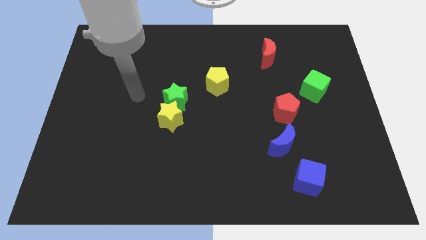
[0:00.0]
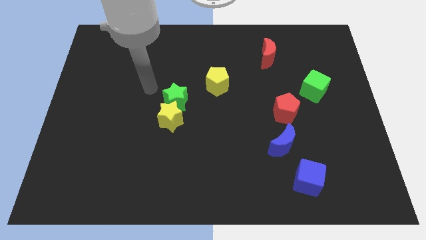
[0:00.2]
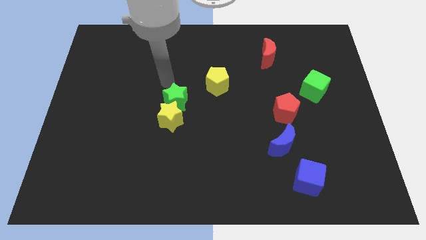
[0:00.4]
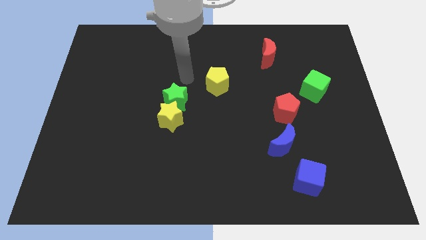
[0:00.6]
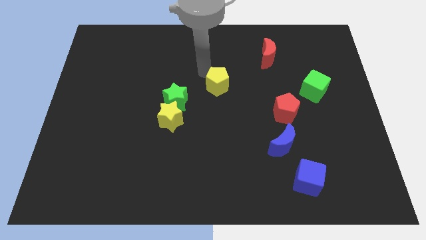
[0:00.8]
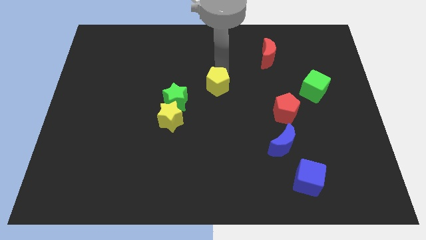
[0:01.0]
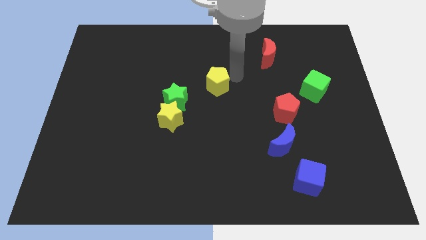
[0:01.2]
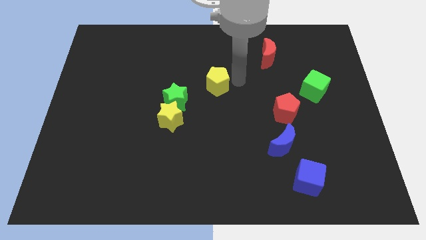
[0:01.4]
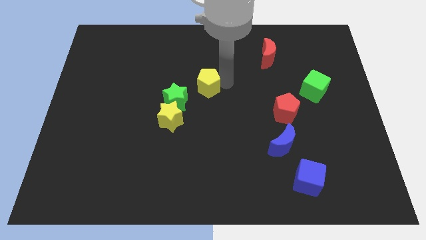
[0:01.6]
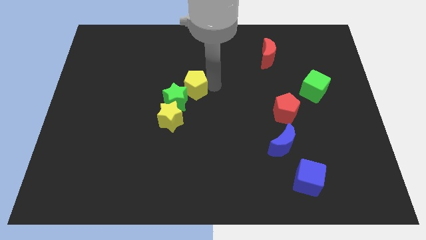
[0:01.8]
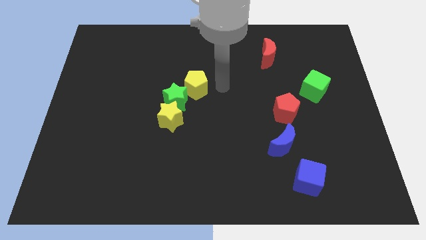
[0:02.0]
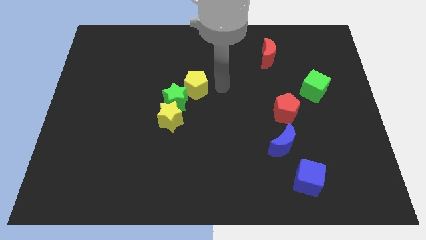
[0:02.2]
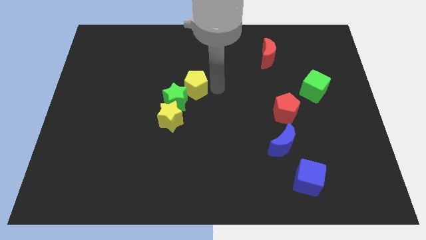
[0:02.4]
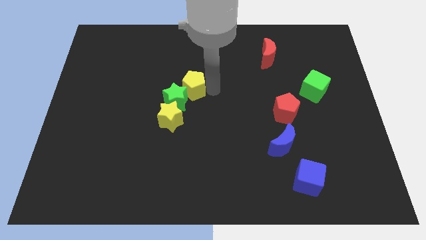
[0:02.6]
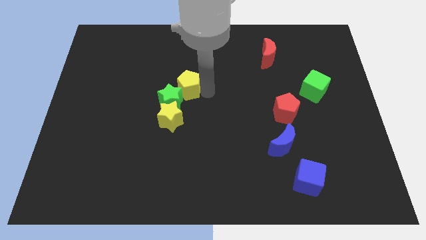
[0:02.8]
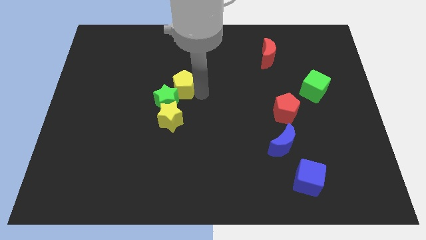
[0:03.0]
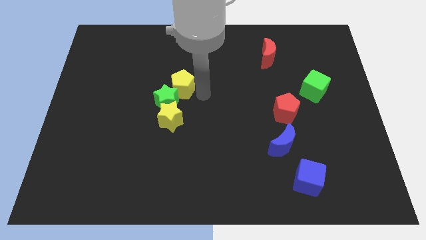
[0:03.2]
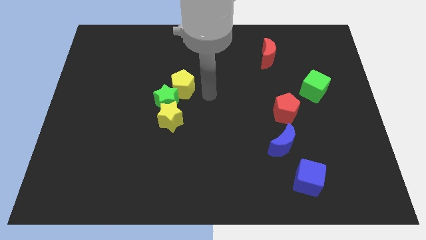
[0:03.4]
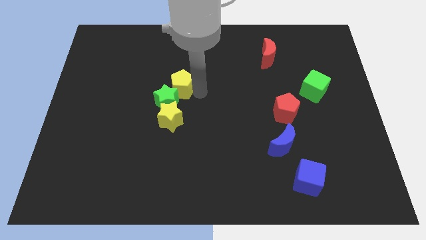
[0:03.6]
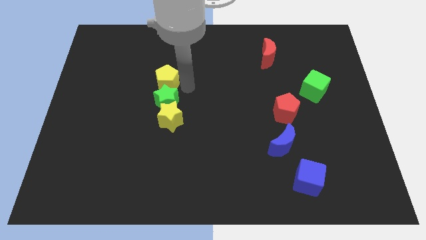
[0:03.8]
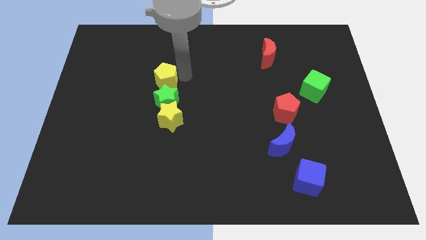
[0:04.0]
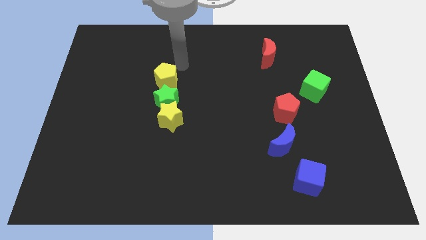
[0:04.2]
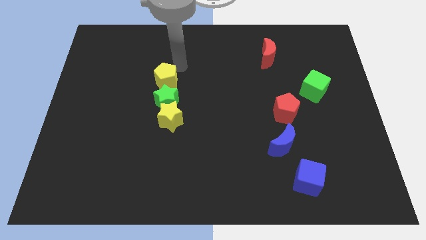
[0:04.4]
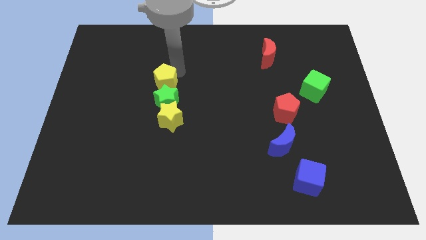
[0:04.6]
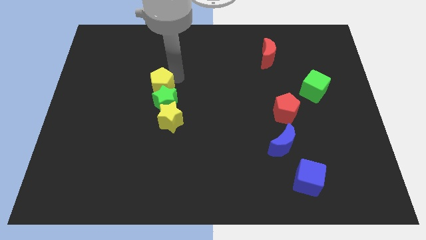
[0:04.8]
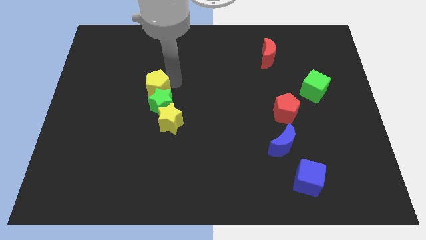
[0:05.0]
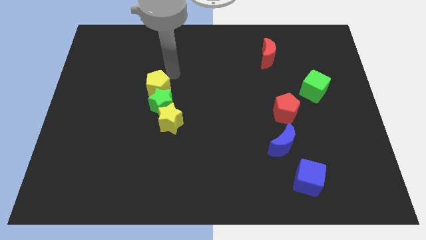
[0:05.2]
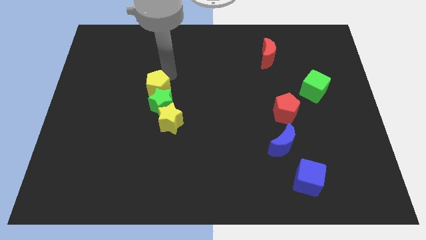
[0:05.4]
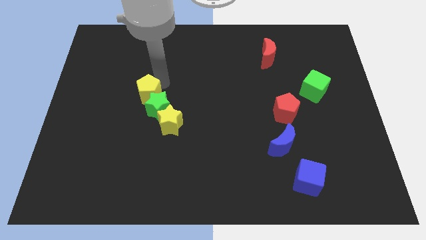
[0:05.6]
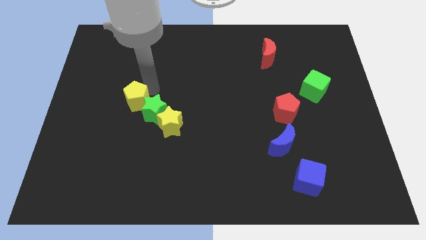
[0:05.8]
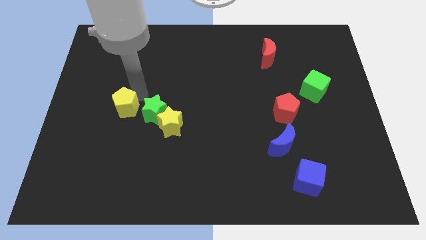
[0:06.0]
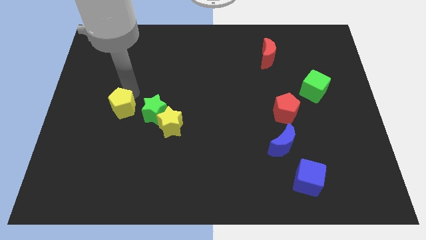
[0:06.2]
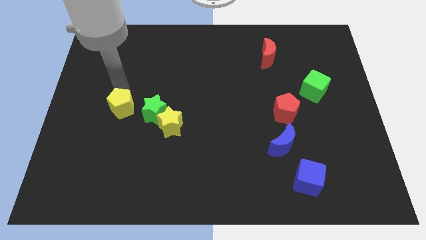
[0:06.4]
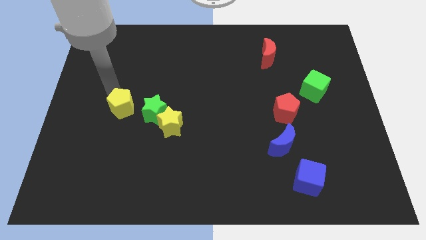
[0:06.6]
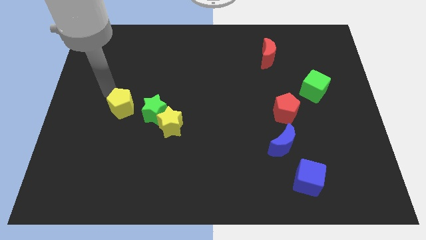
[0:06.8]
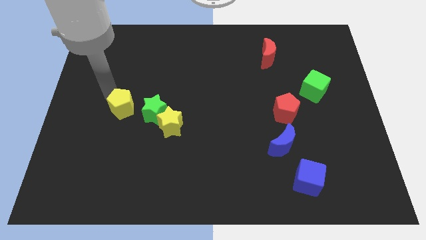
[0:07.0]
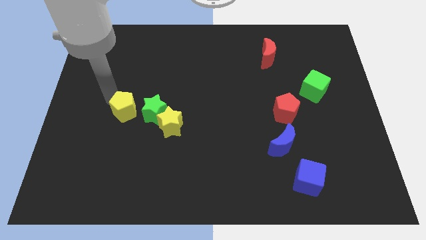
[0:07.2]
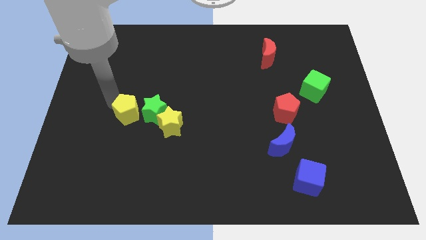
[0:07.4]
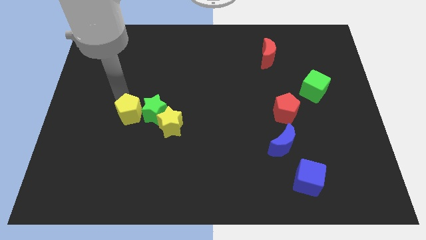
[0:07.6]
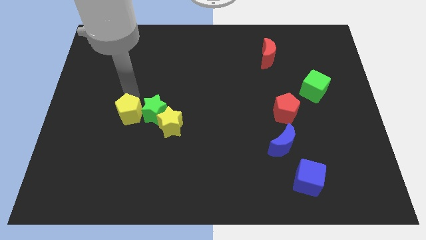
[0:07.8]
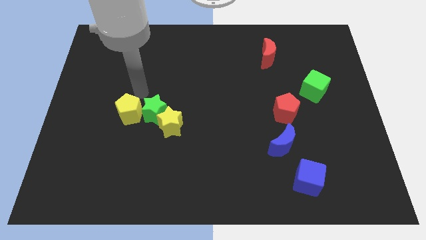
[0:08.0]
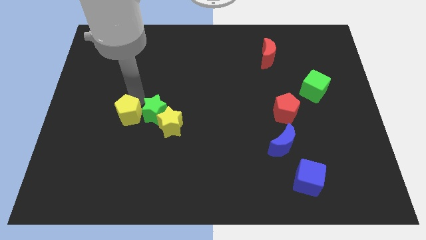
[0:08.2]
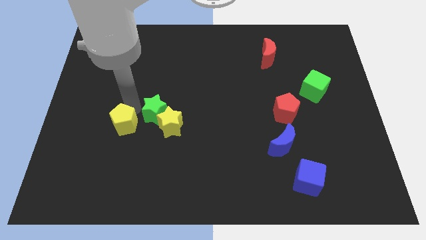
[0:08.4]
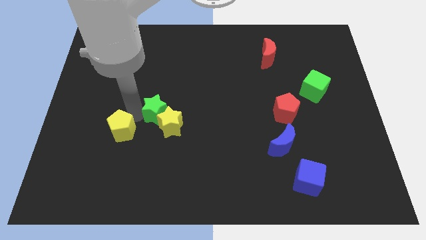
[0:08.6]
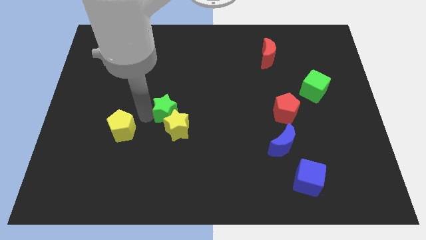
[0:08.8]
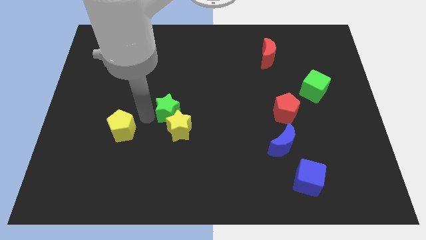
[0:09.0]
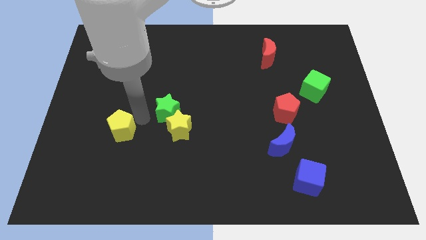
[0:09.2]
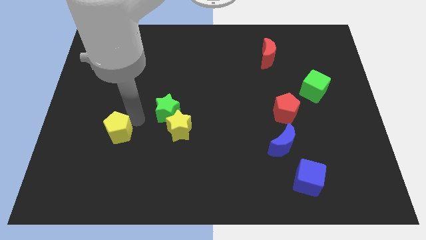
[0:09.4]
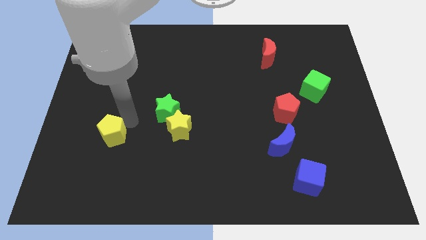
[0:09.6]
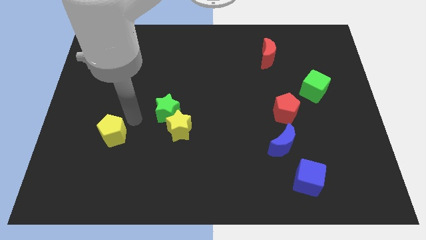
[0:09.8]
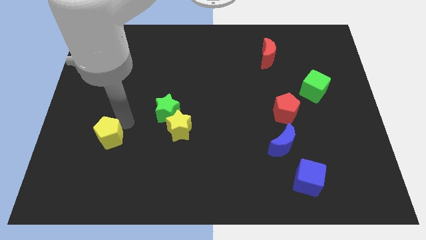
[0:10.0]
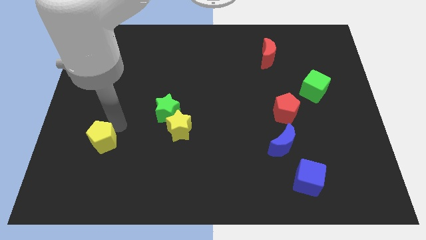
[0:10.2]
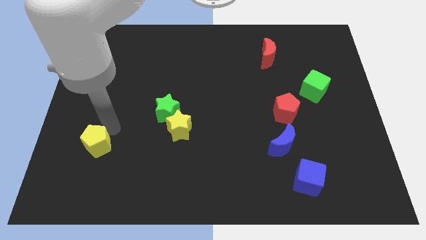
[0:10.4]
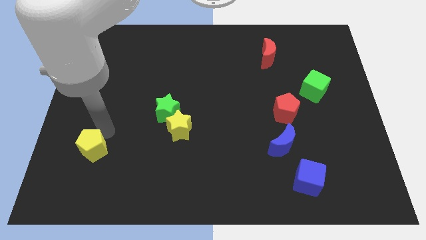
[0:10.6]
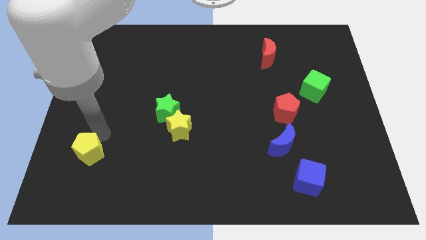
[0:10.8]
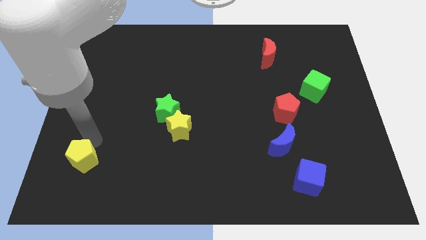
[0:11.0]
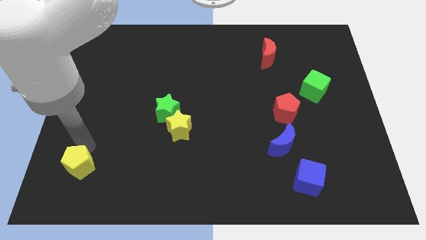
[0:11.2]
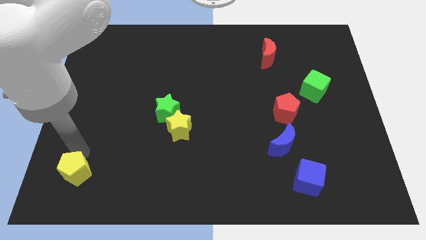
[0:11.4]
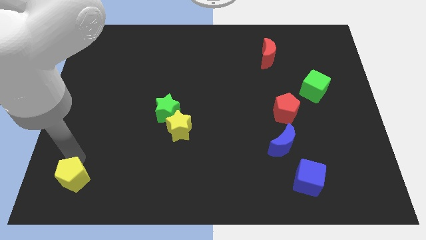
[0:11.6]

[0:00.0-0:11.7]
push the yellow pentagon to the lower left corner

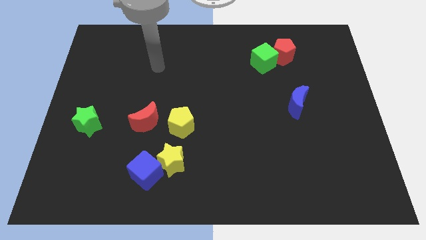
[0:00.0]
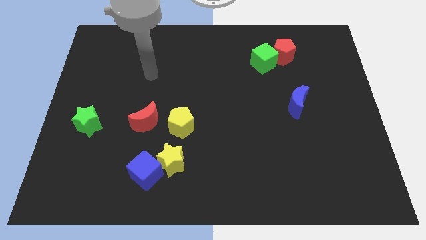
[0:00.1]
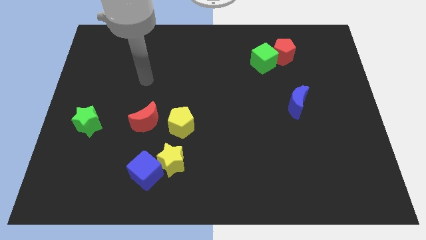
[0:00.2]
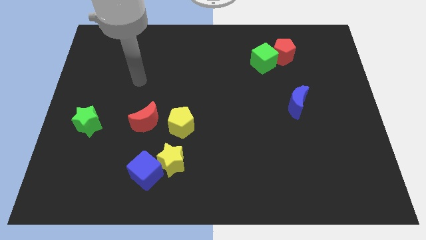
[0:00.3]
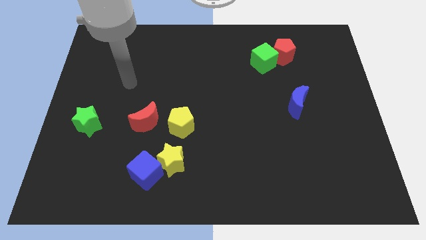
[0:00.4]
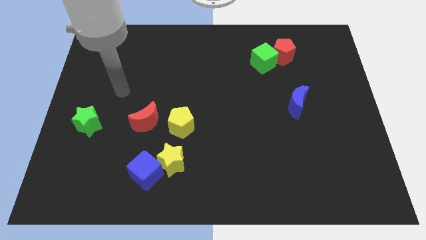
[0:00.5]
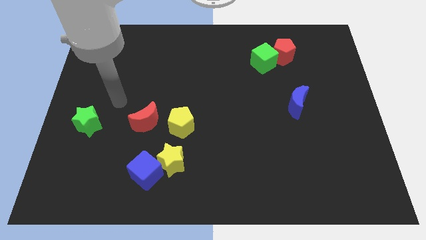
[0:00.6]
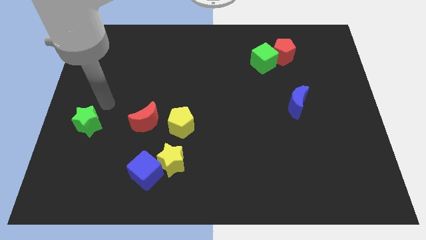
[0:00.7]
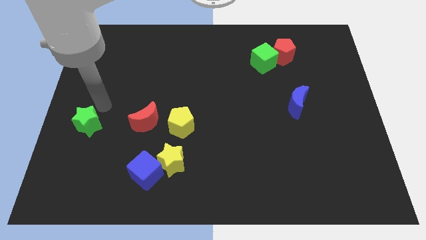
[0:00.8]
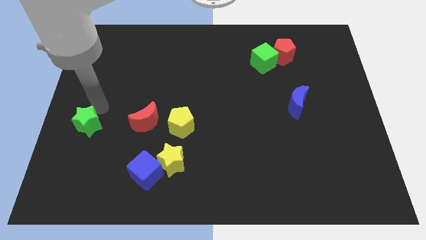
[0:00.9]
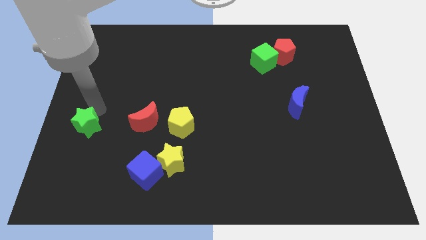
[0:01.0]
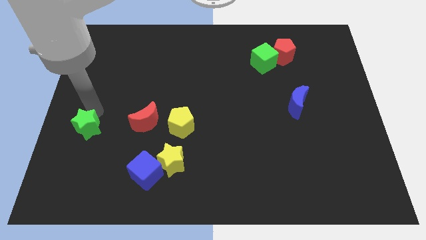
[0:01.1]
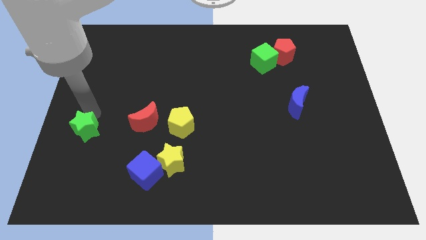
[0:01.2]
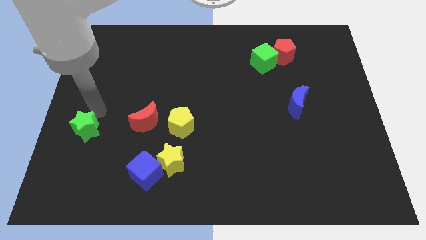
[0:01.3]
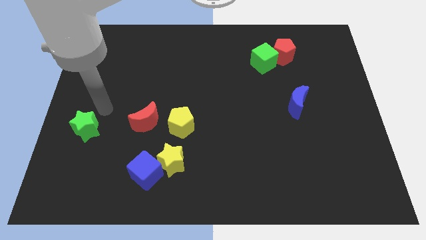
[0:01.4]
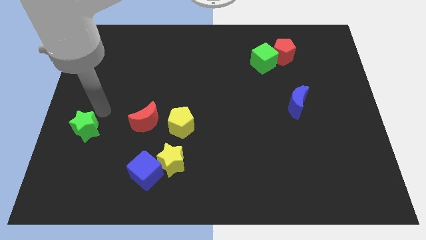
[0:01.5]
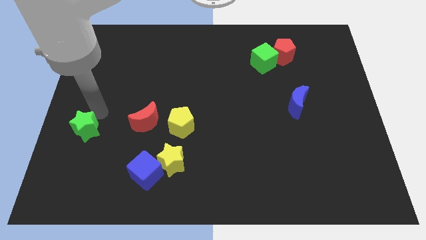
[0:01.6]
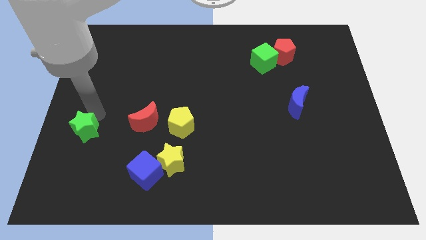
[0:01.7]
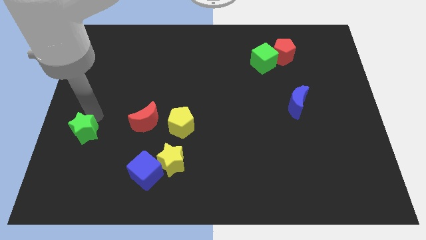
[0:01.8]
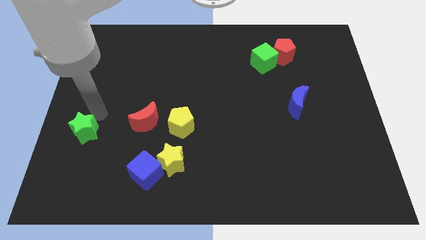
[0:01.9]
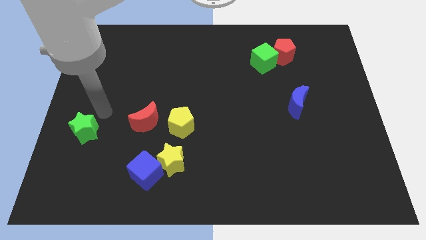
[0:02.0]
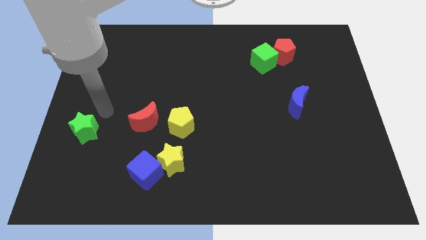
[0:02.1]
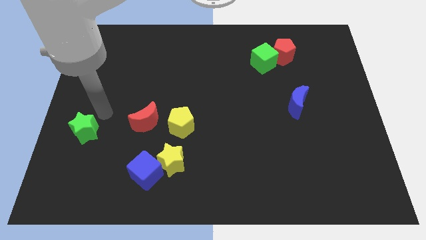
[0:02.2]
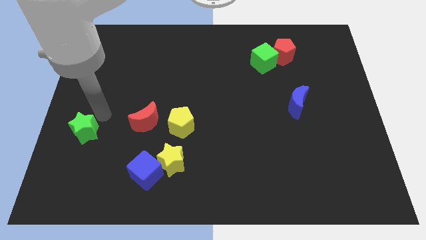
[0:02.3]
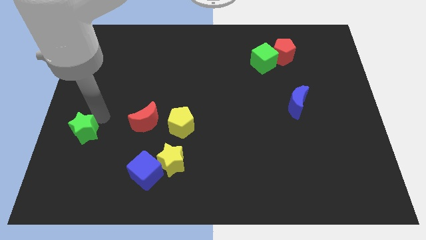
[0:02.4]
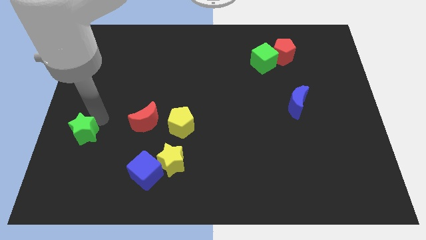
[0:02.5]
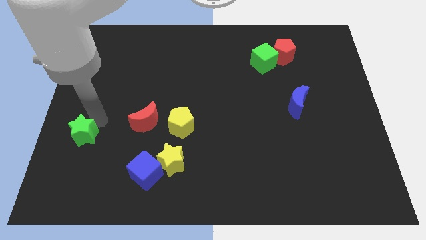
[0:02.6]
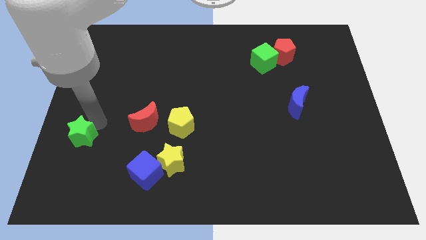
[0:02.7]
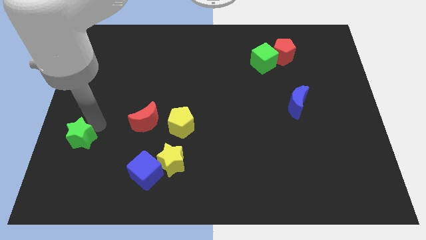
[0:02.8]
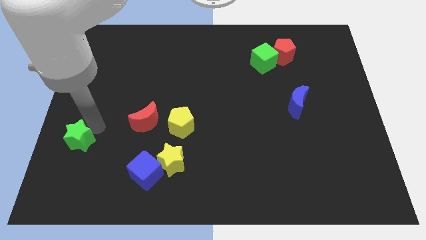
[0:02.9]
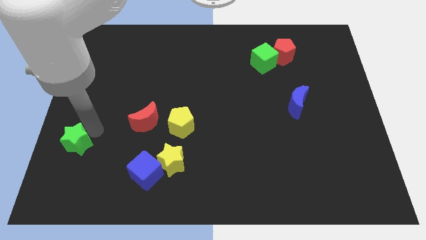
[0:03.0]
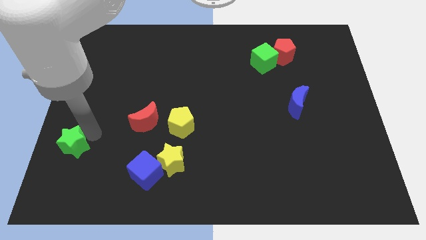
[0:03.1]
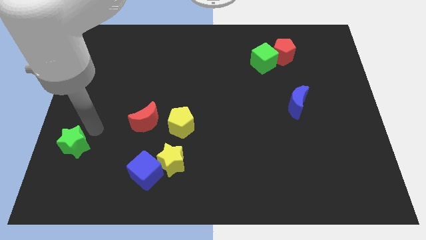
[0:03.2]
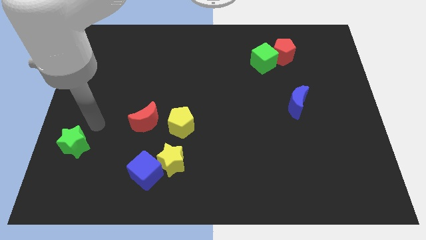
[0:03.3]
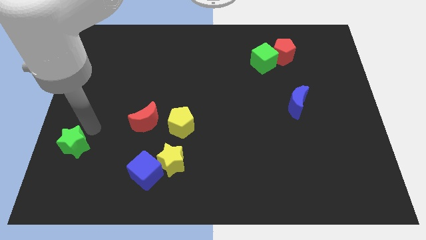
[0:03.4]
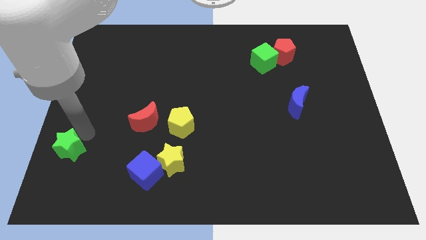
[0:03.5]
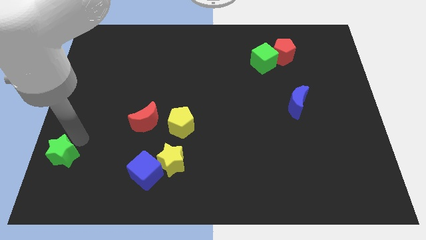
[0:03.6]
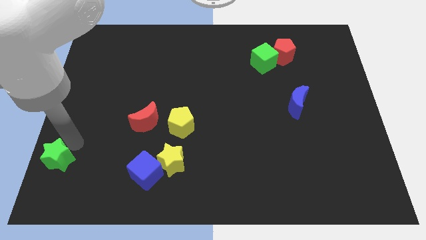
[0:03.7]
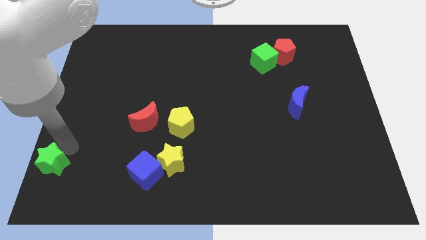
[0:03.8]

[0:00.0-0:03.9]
slide the green star to the lower left corner
